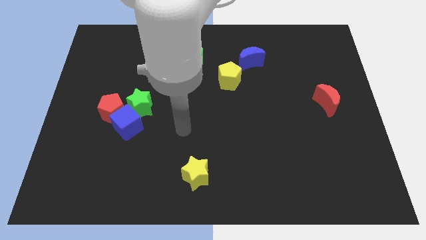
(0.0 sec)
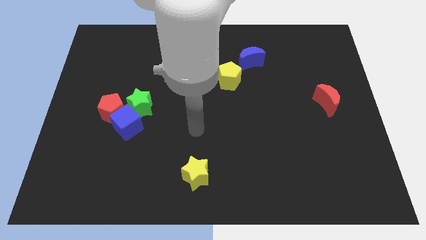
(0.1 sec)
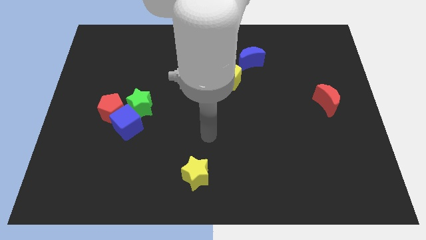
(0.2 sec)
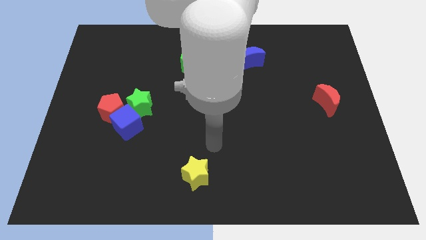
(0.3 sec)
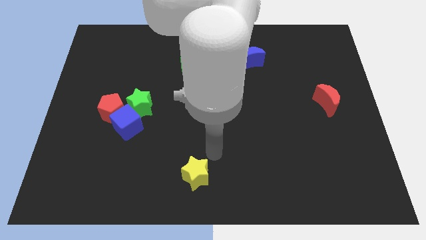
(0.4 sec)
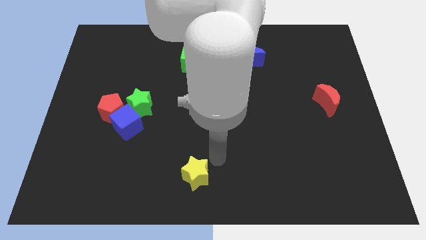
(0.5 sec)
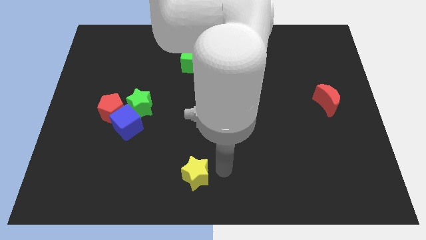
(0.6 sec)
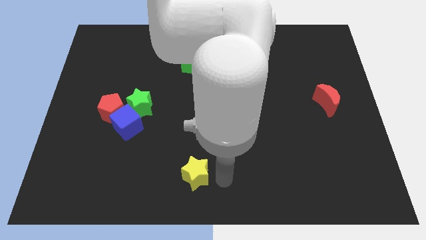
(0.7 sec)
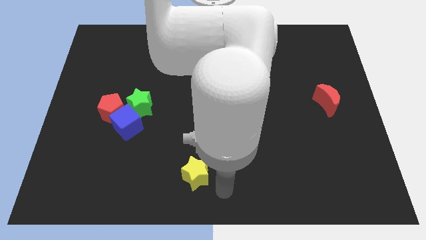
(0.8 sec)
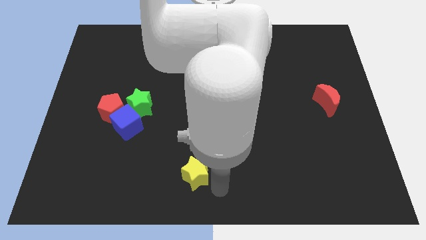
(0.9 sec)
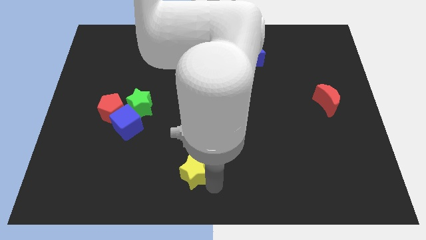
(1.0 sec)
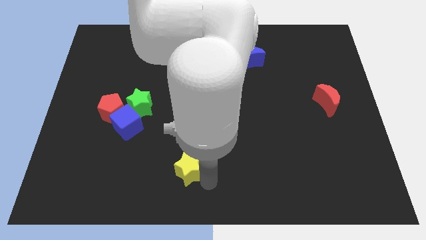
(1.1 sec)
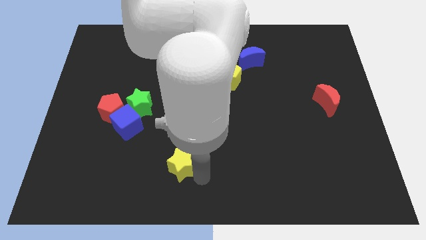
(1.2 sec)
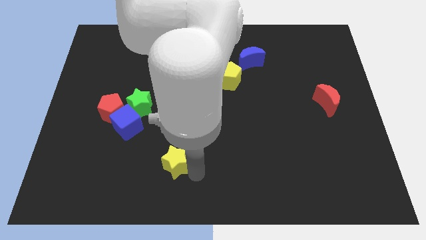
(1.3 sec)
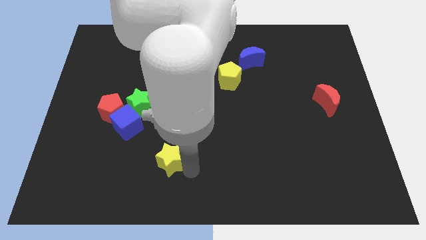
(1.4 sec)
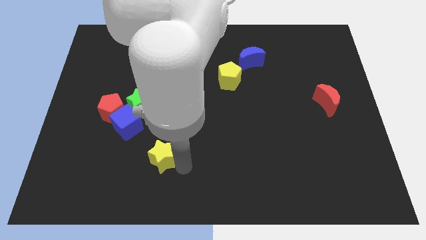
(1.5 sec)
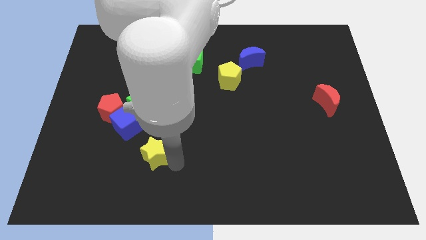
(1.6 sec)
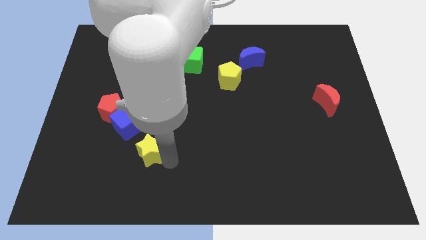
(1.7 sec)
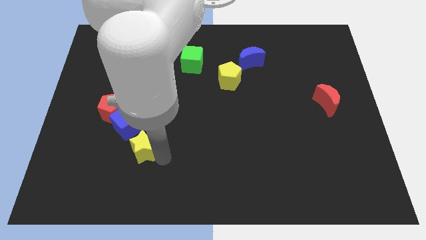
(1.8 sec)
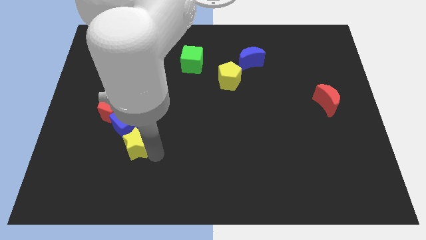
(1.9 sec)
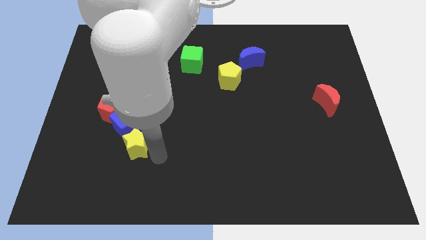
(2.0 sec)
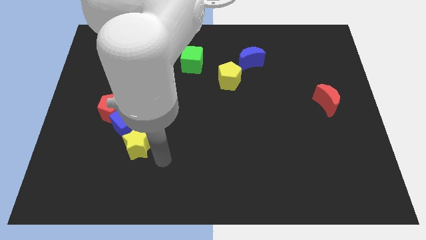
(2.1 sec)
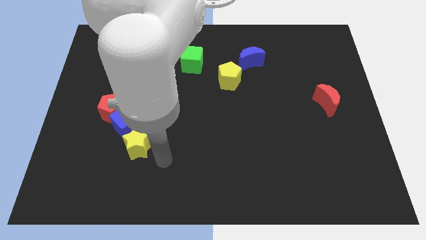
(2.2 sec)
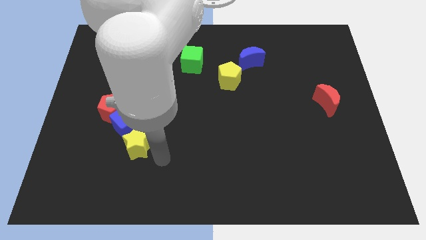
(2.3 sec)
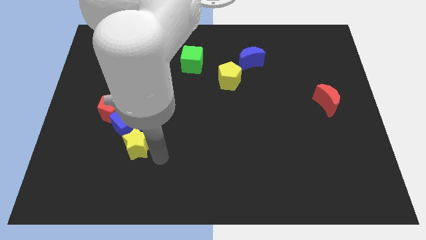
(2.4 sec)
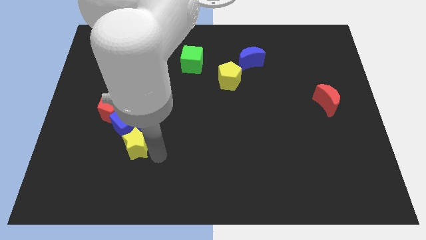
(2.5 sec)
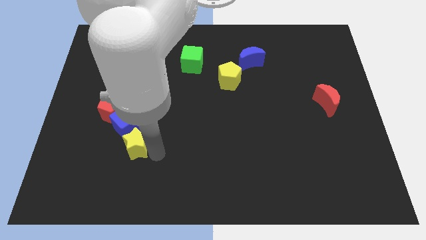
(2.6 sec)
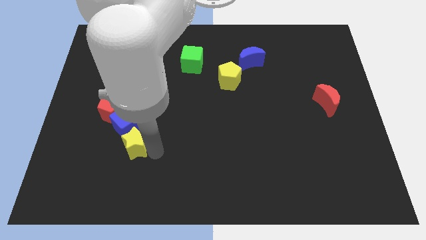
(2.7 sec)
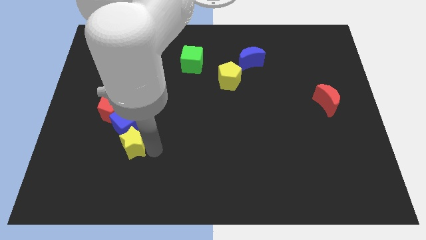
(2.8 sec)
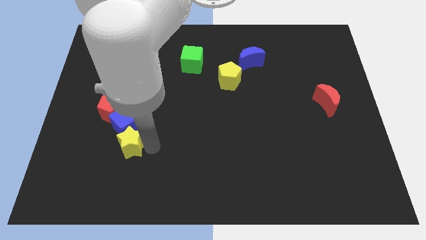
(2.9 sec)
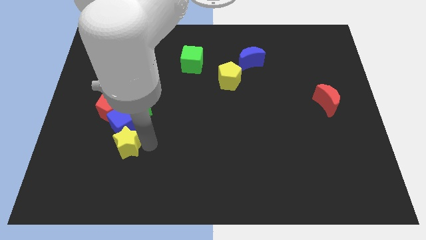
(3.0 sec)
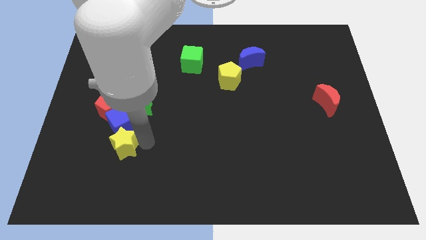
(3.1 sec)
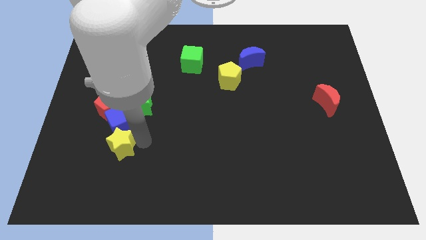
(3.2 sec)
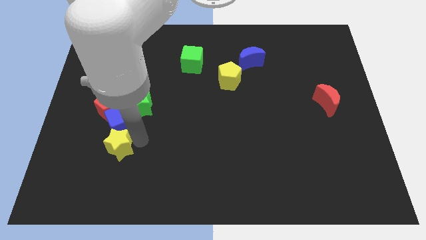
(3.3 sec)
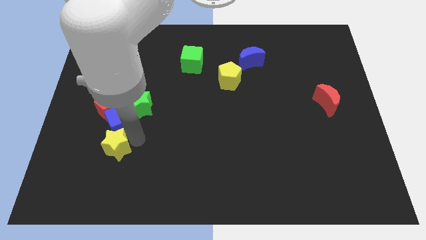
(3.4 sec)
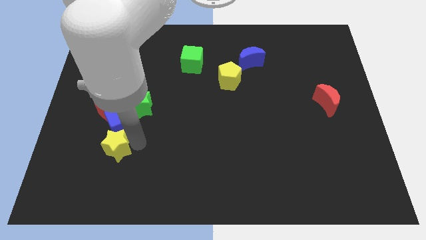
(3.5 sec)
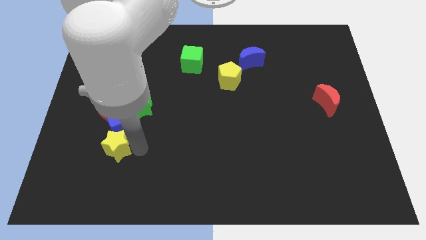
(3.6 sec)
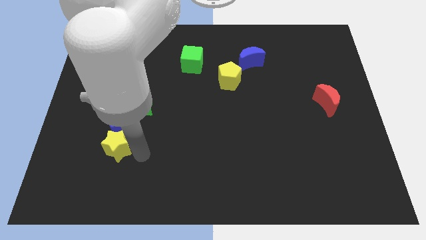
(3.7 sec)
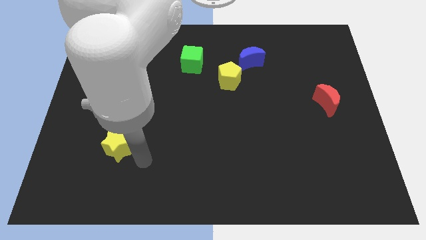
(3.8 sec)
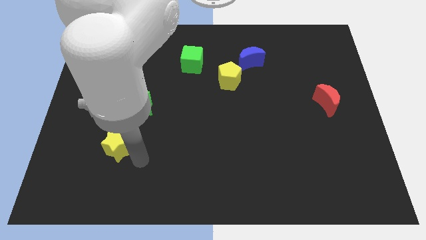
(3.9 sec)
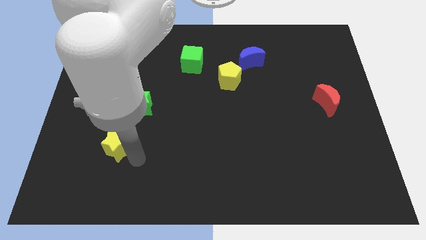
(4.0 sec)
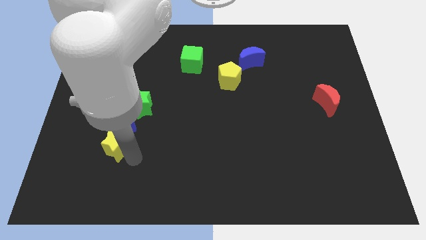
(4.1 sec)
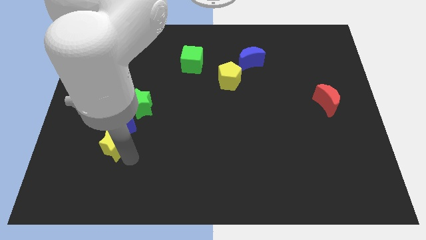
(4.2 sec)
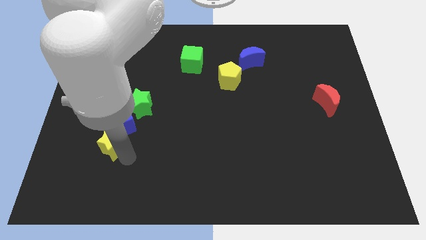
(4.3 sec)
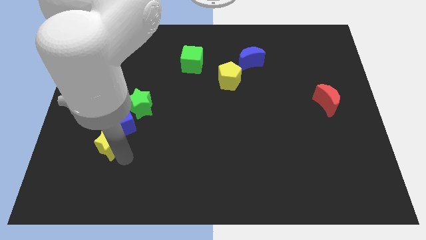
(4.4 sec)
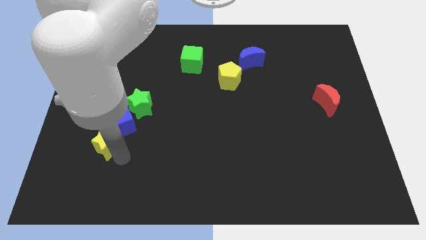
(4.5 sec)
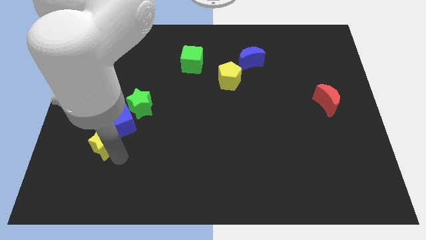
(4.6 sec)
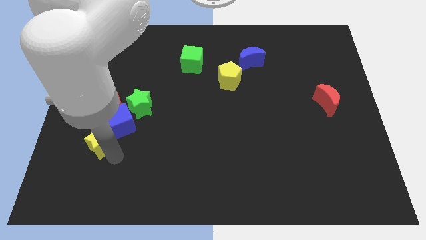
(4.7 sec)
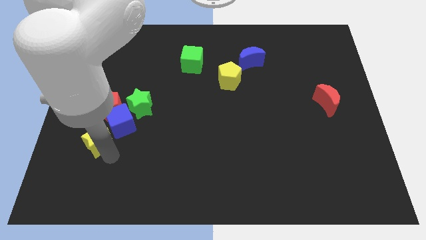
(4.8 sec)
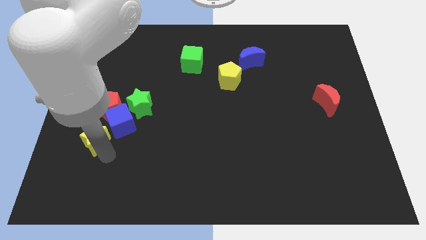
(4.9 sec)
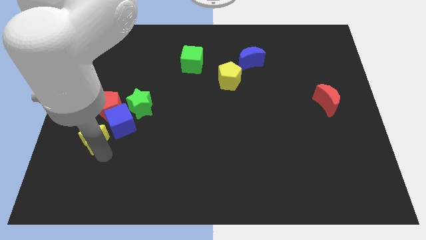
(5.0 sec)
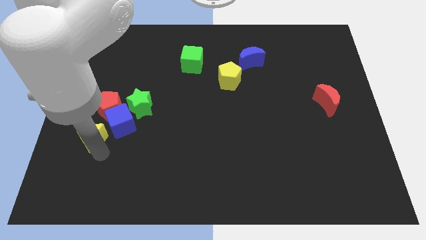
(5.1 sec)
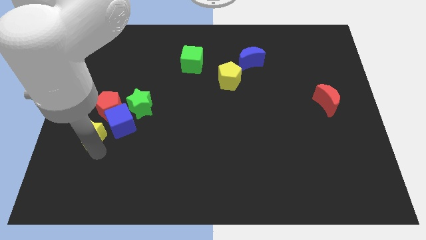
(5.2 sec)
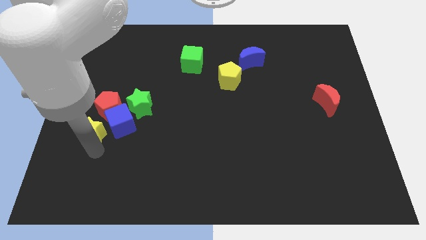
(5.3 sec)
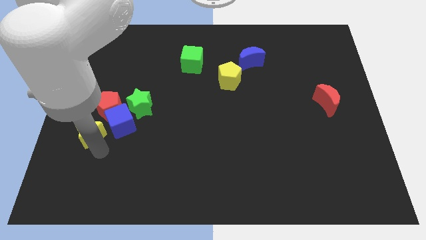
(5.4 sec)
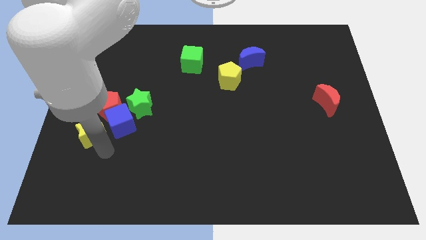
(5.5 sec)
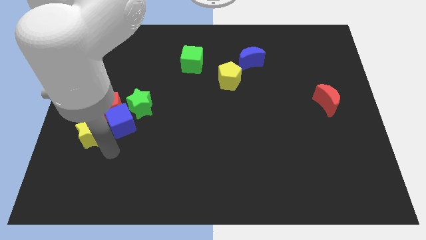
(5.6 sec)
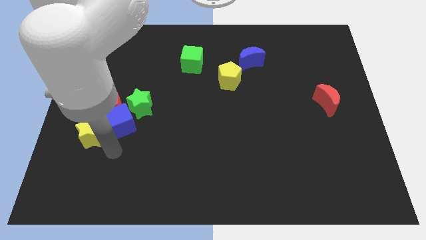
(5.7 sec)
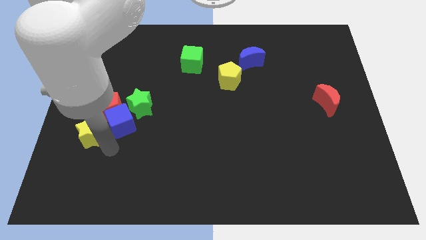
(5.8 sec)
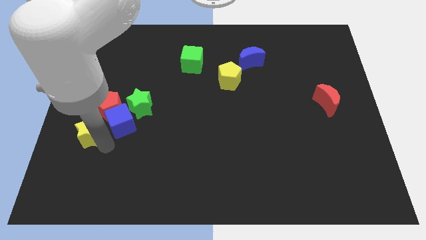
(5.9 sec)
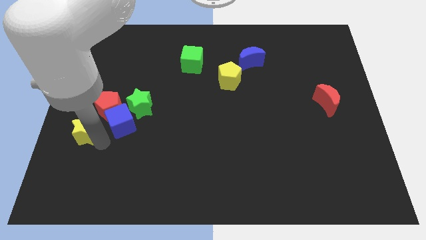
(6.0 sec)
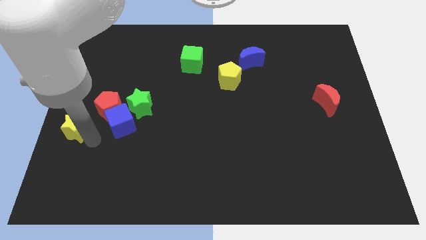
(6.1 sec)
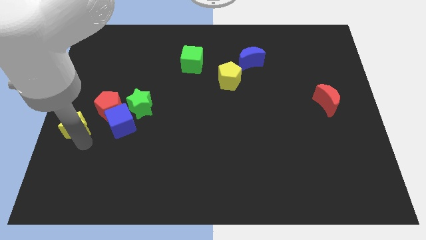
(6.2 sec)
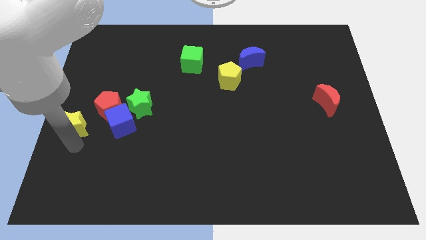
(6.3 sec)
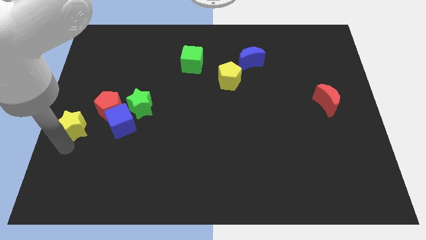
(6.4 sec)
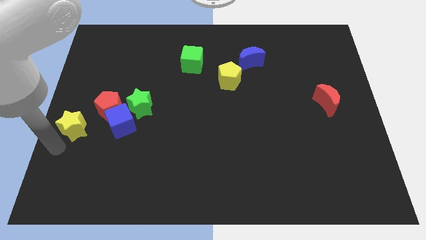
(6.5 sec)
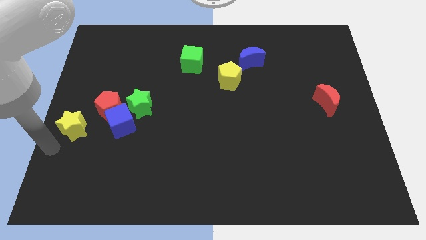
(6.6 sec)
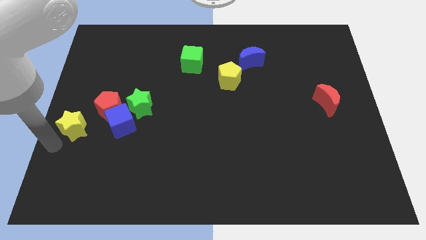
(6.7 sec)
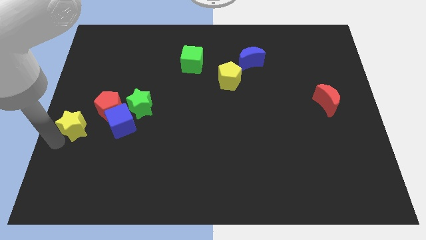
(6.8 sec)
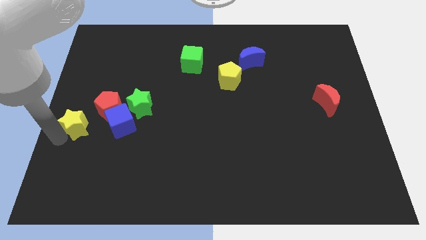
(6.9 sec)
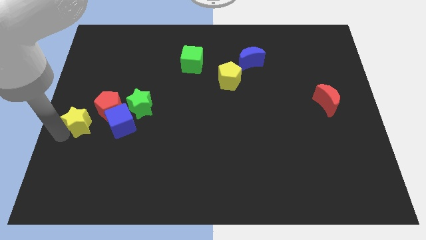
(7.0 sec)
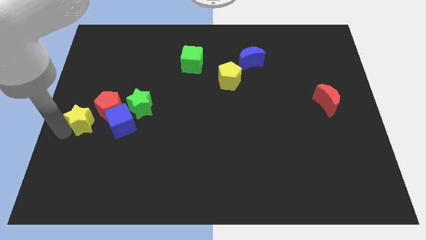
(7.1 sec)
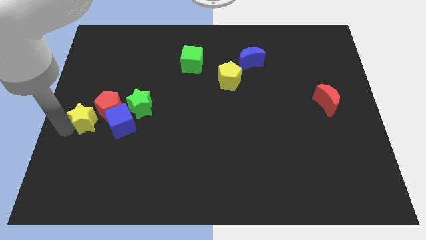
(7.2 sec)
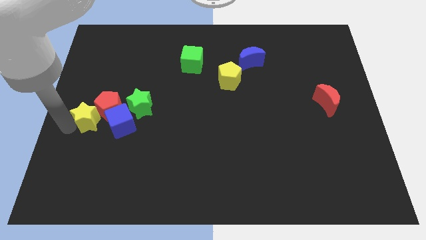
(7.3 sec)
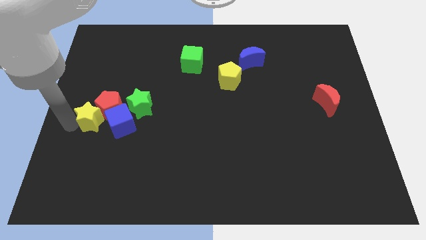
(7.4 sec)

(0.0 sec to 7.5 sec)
move the yellow star to the top left of the blue cube

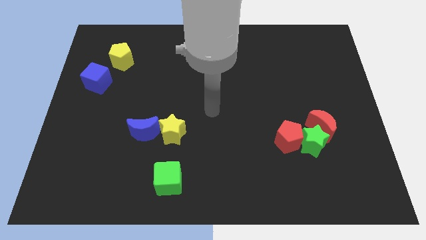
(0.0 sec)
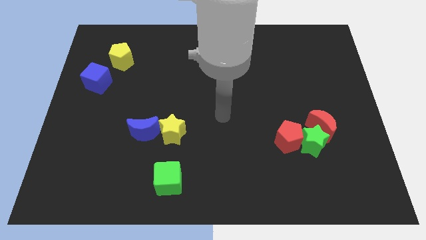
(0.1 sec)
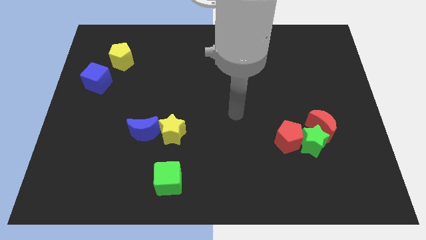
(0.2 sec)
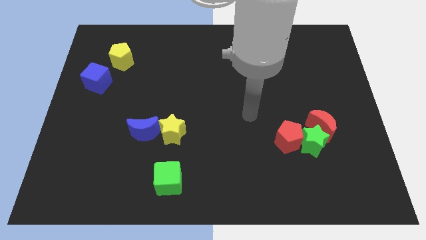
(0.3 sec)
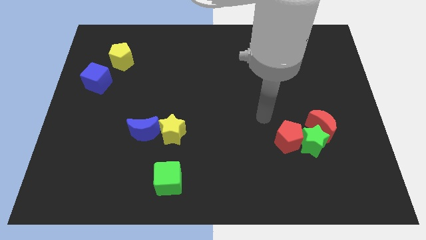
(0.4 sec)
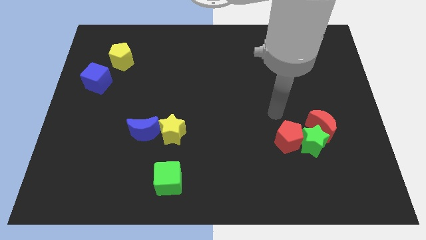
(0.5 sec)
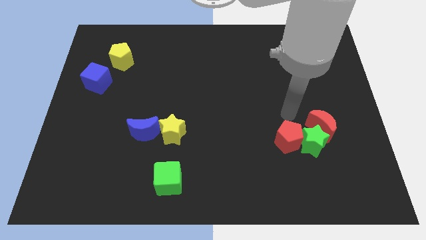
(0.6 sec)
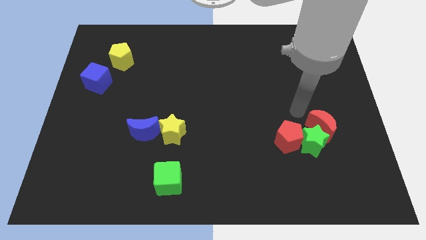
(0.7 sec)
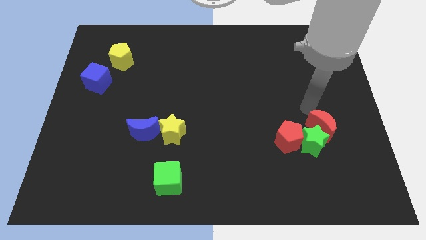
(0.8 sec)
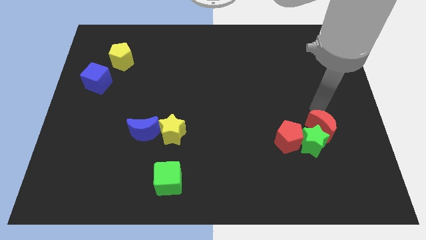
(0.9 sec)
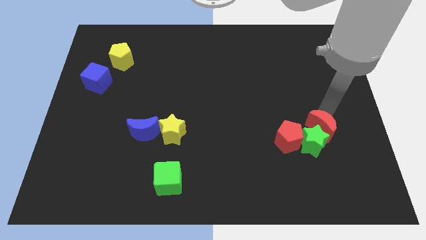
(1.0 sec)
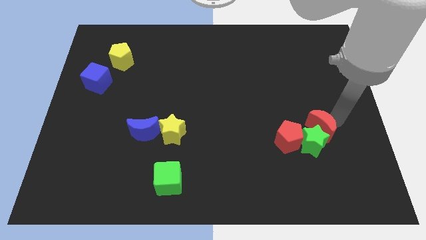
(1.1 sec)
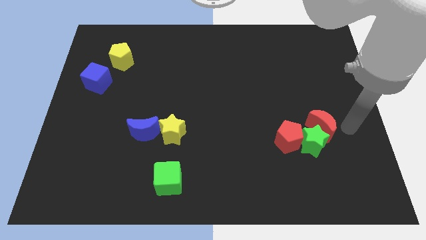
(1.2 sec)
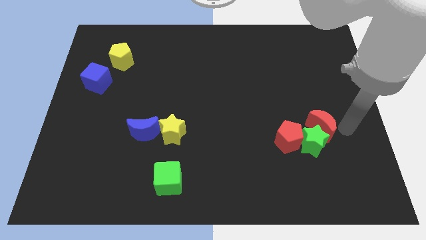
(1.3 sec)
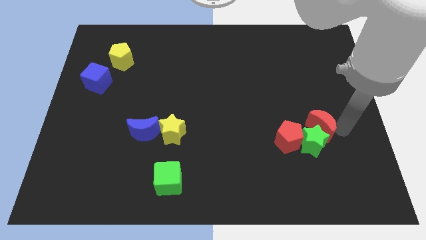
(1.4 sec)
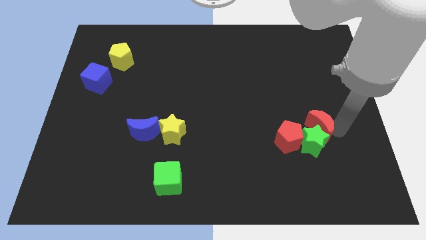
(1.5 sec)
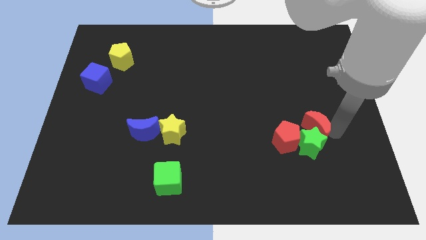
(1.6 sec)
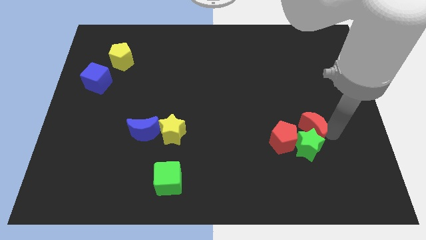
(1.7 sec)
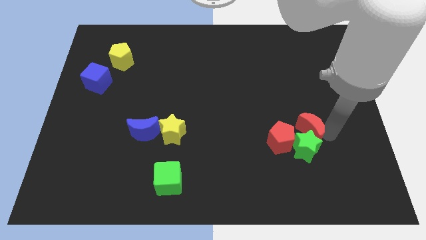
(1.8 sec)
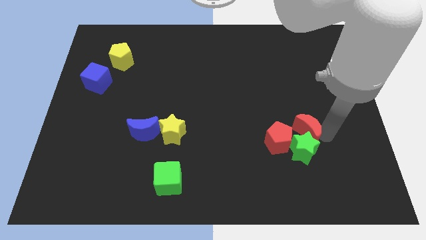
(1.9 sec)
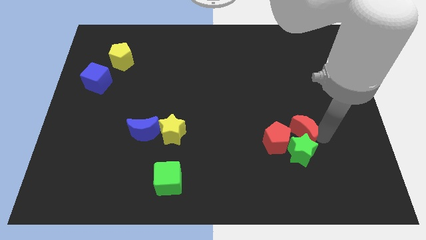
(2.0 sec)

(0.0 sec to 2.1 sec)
put the red moon to the top left of the green star
